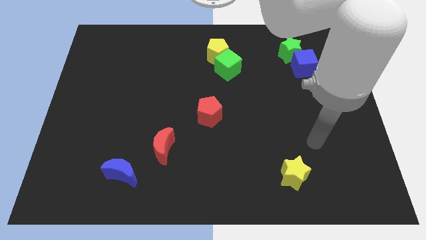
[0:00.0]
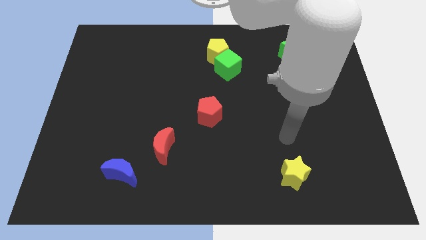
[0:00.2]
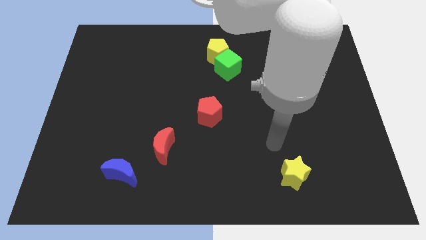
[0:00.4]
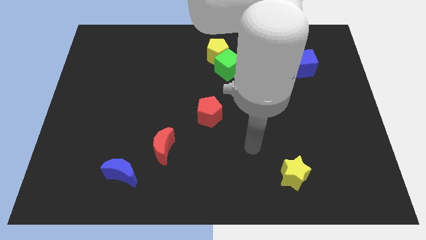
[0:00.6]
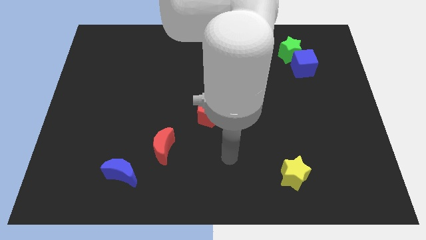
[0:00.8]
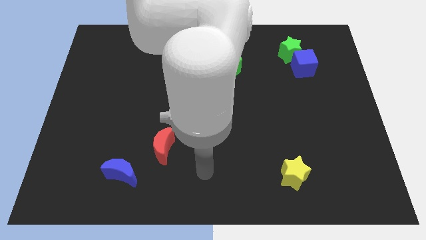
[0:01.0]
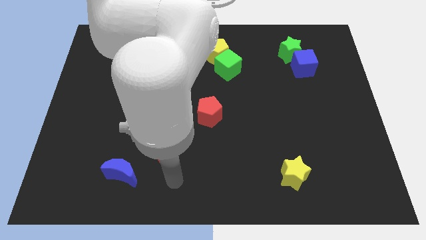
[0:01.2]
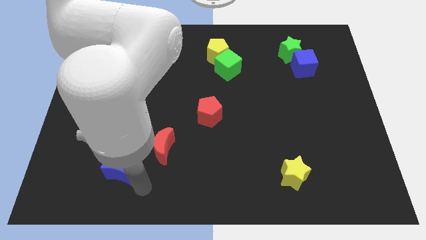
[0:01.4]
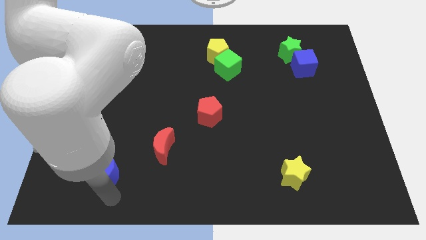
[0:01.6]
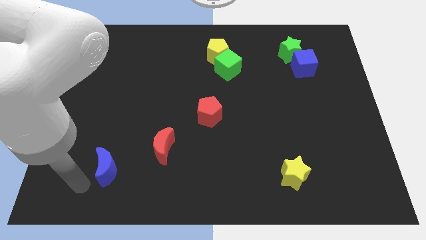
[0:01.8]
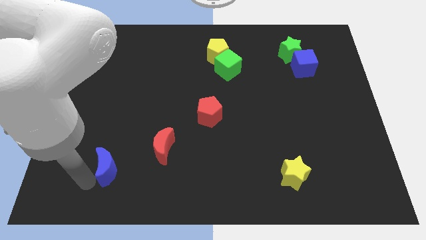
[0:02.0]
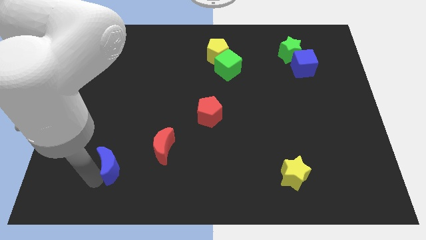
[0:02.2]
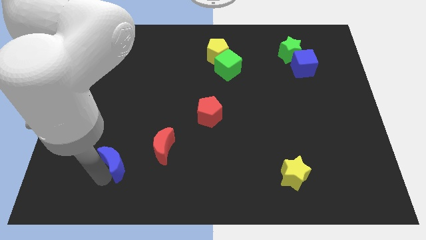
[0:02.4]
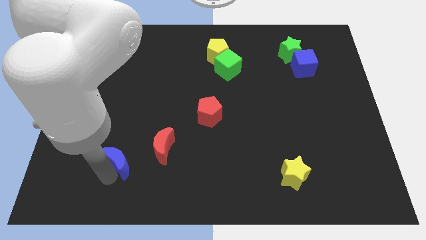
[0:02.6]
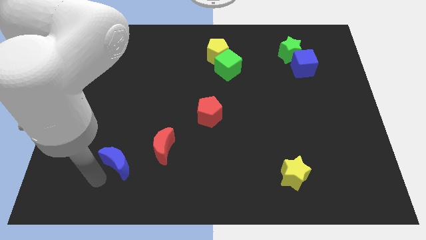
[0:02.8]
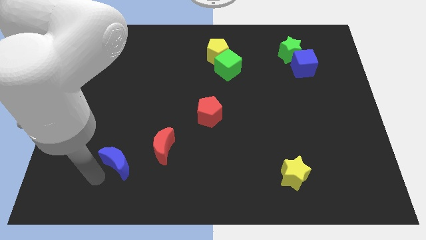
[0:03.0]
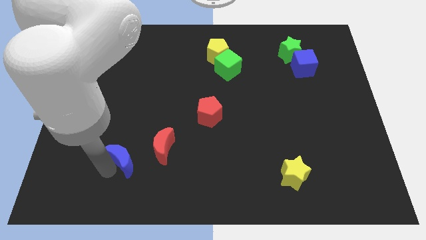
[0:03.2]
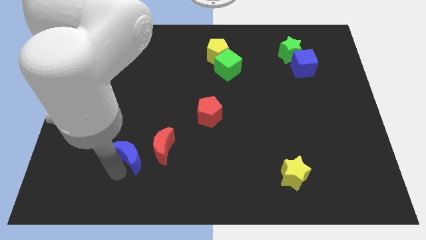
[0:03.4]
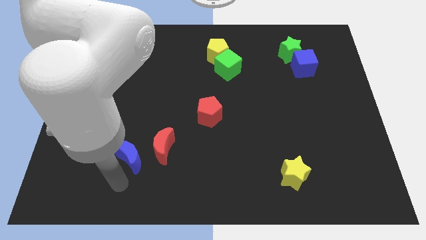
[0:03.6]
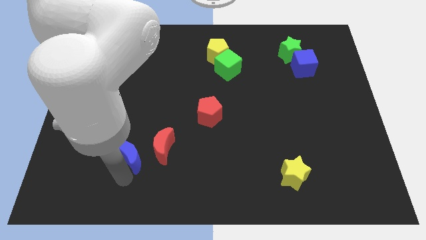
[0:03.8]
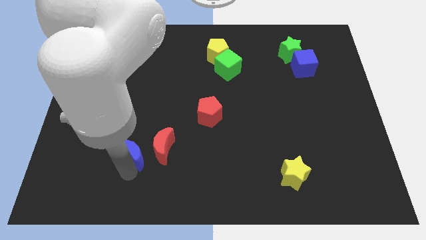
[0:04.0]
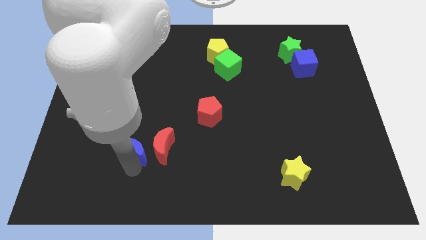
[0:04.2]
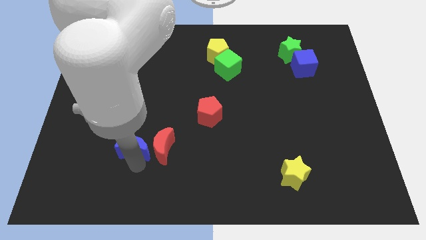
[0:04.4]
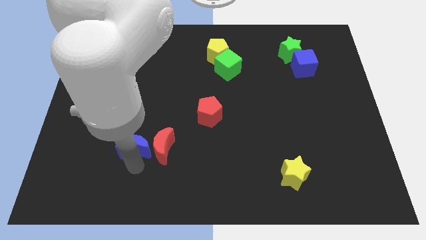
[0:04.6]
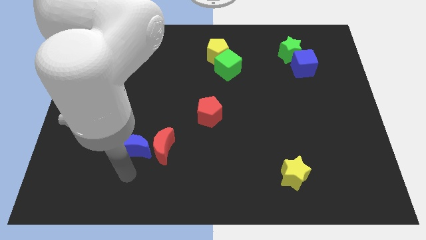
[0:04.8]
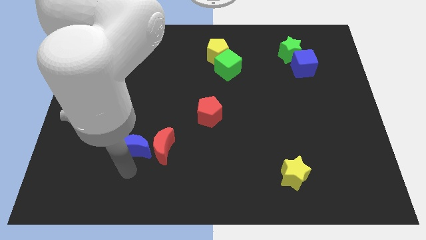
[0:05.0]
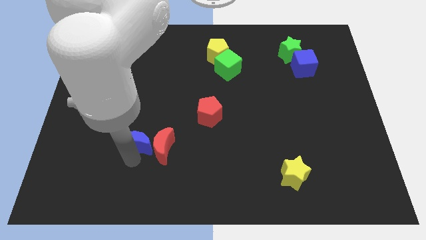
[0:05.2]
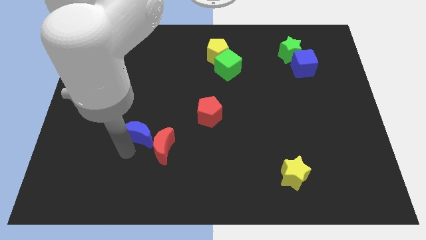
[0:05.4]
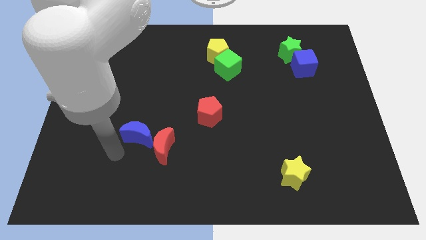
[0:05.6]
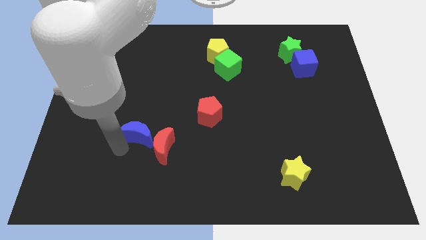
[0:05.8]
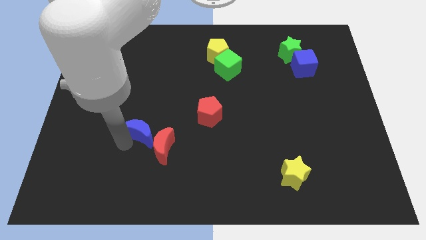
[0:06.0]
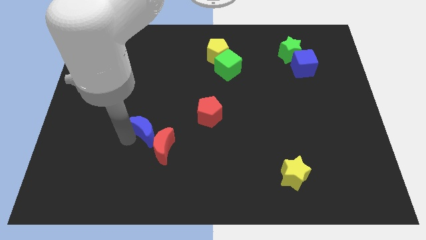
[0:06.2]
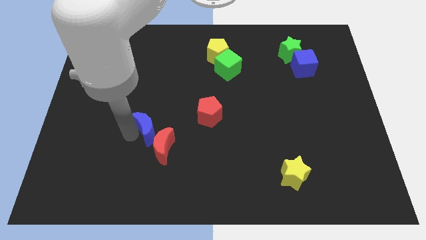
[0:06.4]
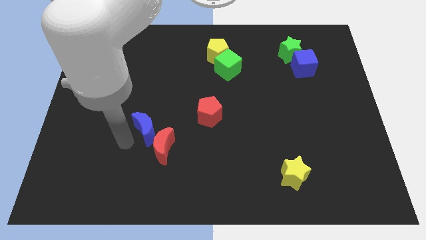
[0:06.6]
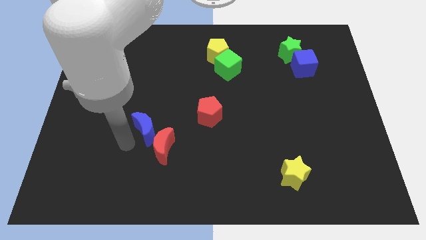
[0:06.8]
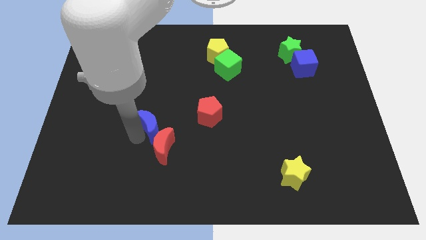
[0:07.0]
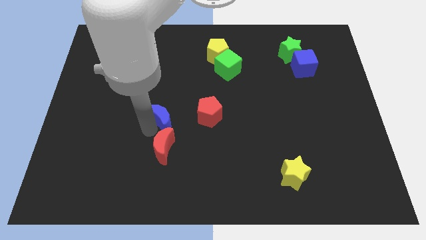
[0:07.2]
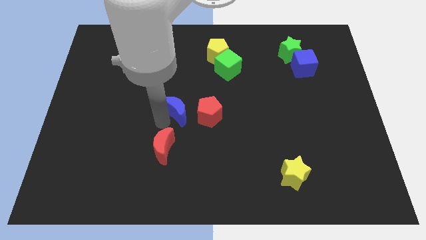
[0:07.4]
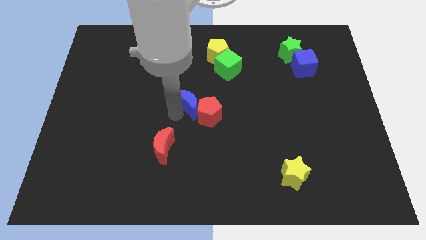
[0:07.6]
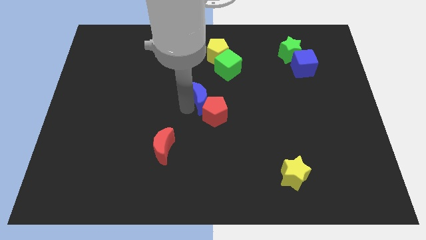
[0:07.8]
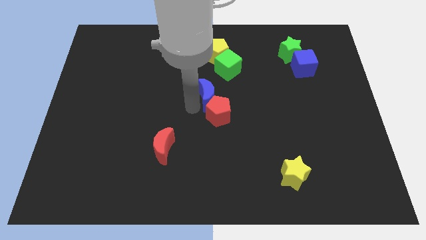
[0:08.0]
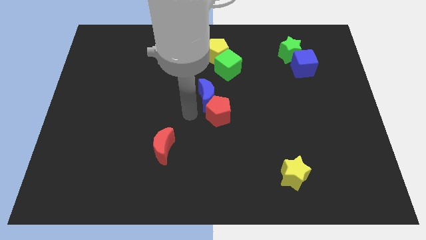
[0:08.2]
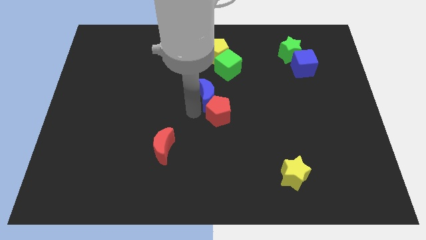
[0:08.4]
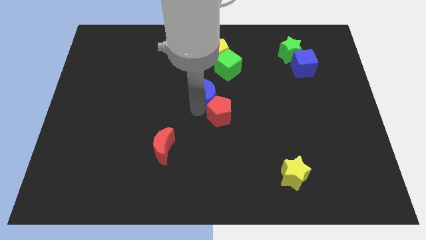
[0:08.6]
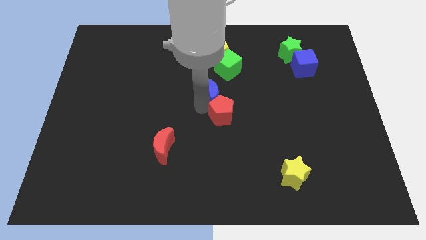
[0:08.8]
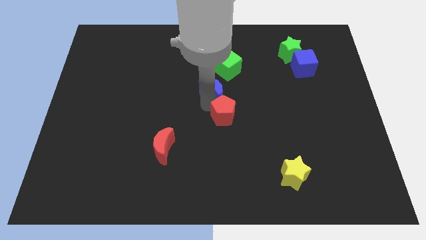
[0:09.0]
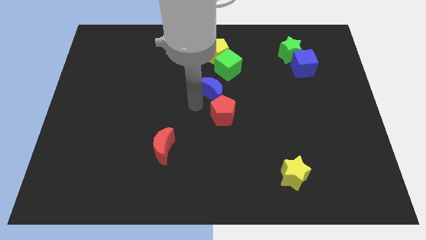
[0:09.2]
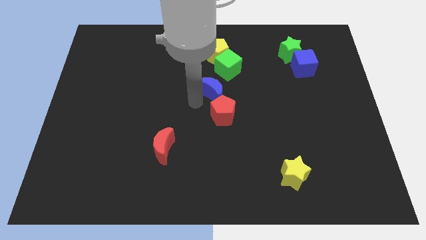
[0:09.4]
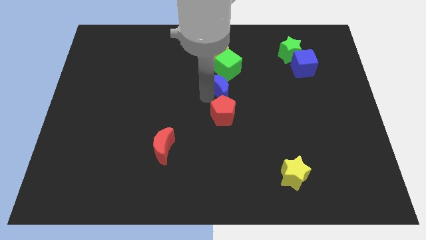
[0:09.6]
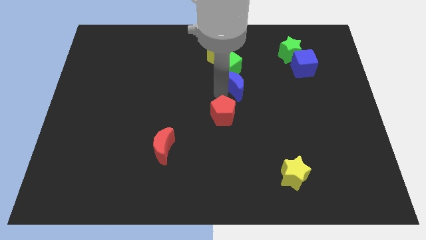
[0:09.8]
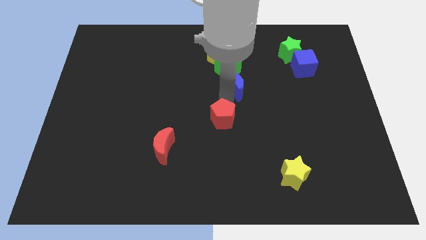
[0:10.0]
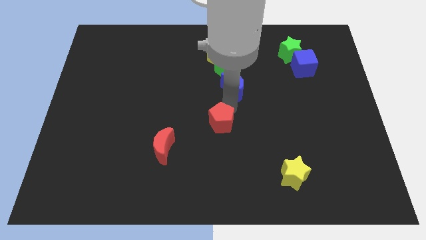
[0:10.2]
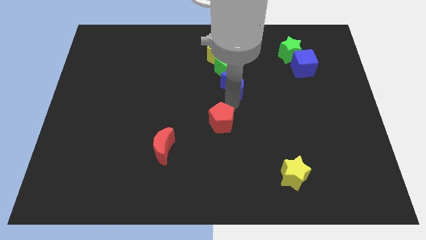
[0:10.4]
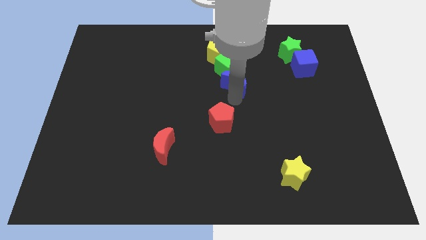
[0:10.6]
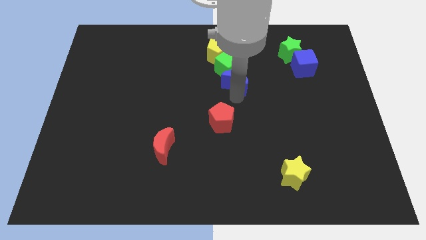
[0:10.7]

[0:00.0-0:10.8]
push the blue moon to the bottom right side of the yellow pentagon

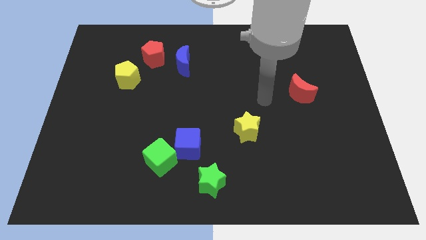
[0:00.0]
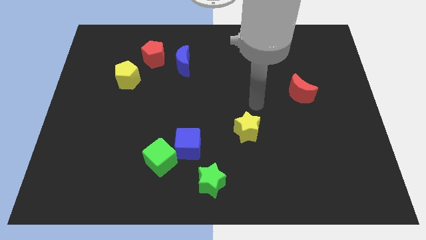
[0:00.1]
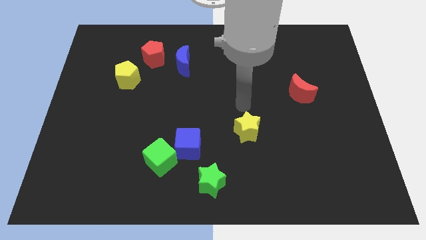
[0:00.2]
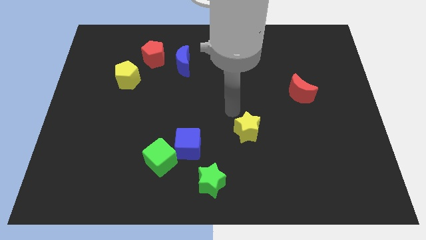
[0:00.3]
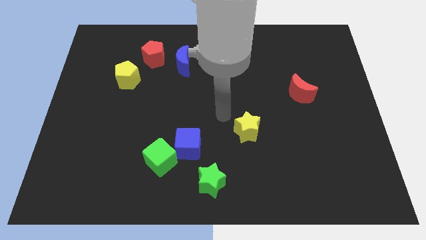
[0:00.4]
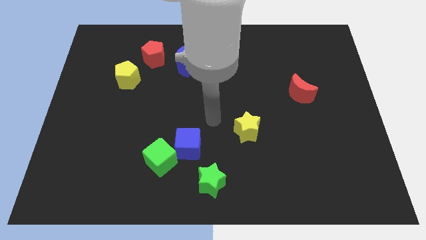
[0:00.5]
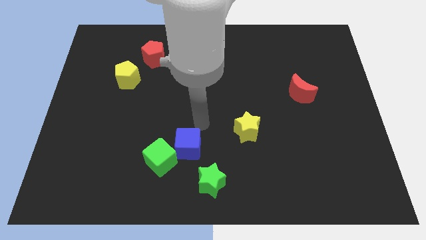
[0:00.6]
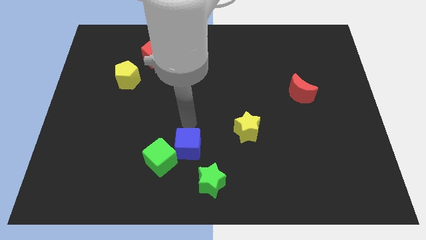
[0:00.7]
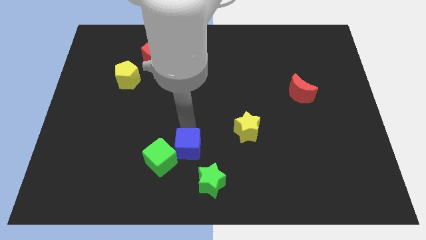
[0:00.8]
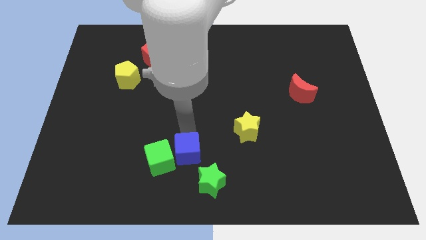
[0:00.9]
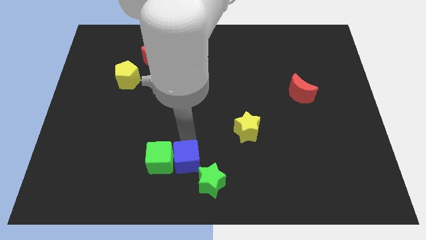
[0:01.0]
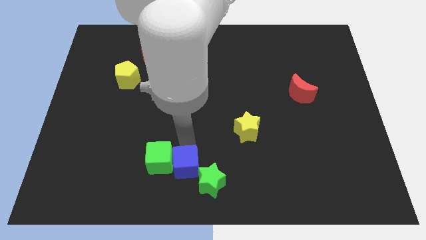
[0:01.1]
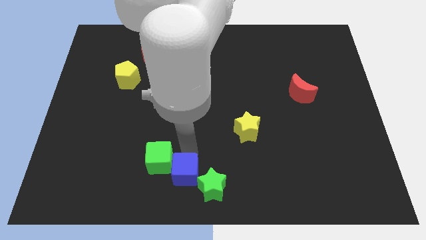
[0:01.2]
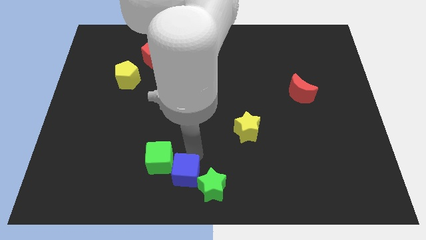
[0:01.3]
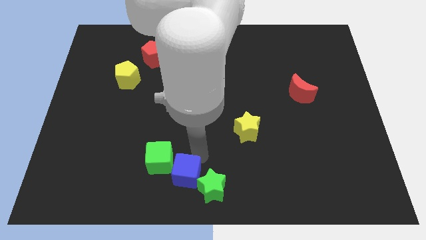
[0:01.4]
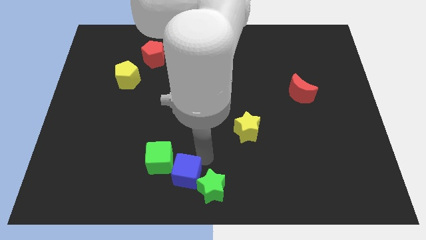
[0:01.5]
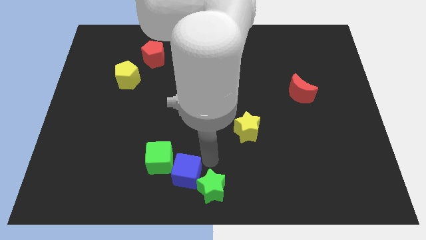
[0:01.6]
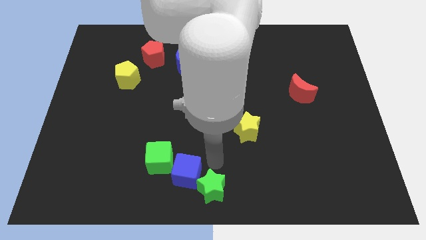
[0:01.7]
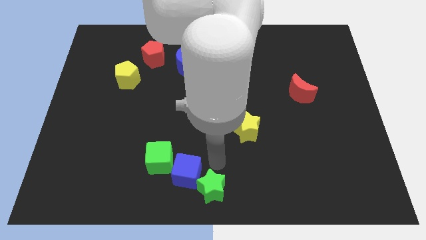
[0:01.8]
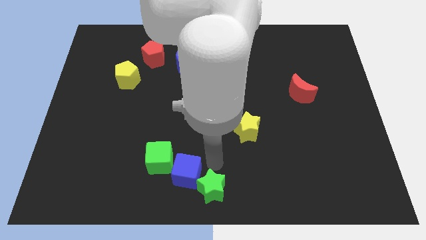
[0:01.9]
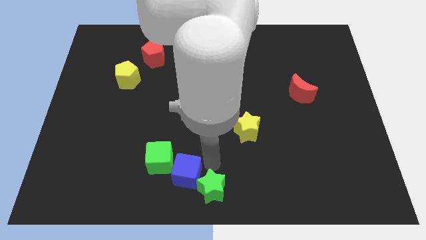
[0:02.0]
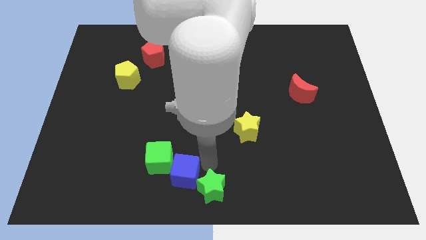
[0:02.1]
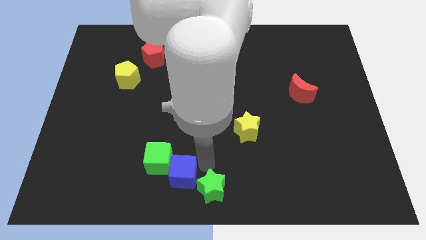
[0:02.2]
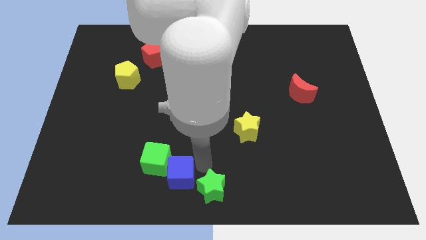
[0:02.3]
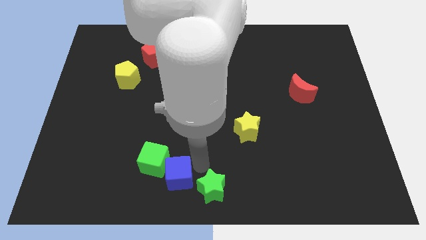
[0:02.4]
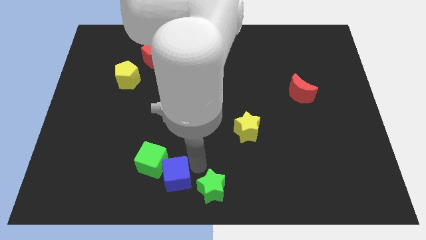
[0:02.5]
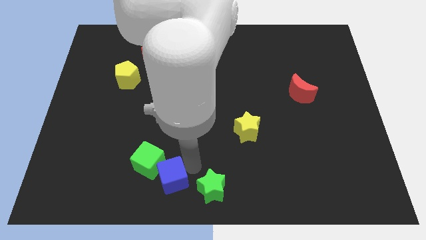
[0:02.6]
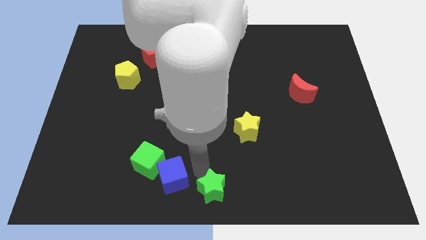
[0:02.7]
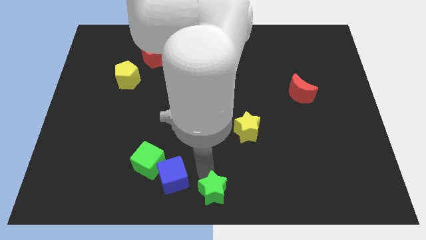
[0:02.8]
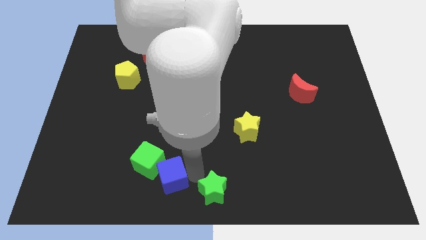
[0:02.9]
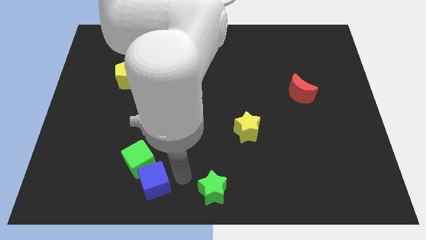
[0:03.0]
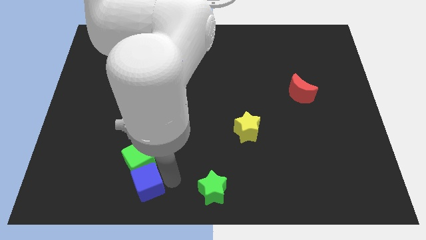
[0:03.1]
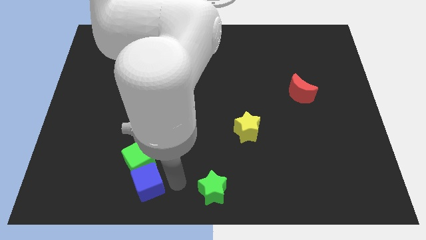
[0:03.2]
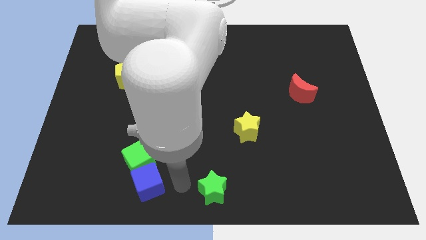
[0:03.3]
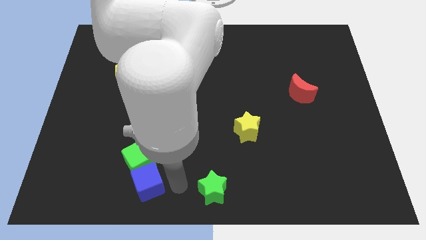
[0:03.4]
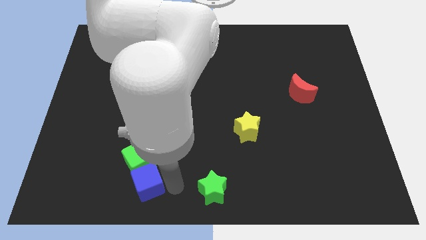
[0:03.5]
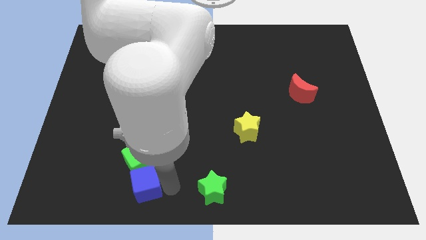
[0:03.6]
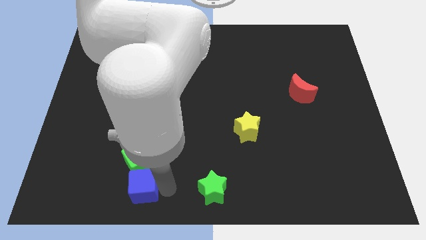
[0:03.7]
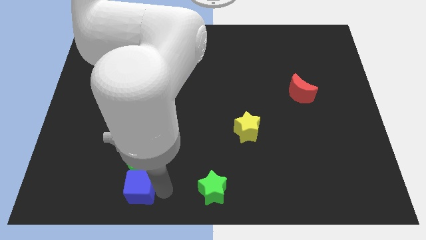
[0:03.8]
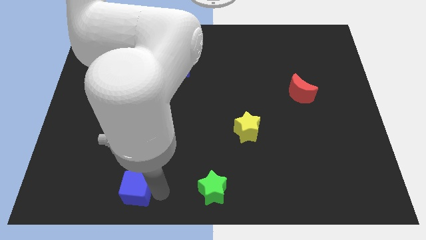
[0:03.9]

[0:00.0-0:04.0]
push the blue cube to the bottom left of the green cube
